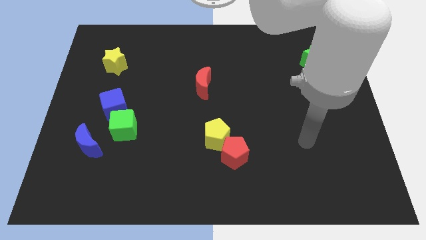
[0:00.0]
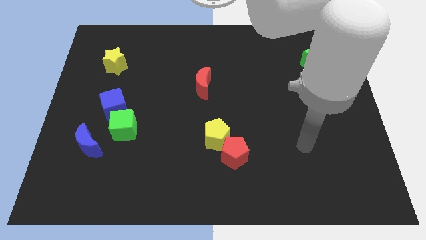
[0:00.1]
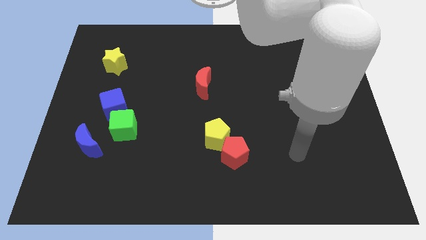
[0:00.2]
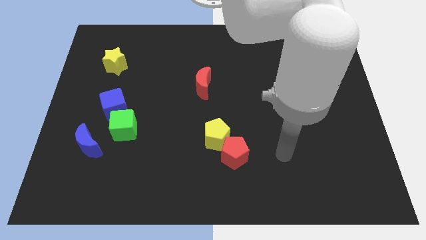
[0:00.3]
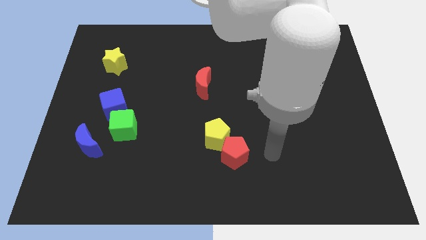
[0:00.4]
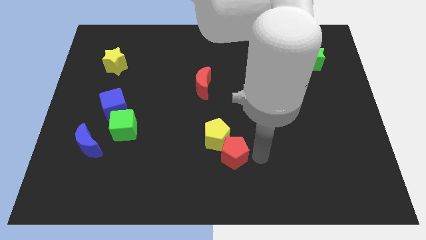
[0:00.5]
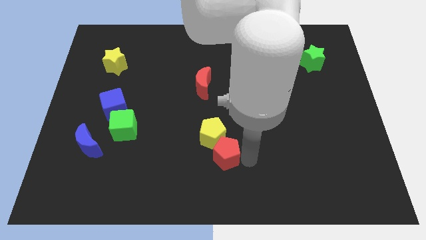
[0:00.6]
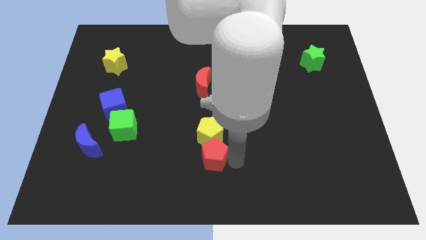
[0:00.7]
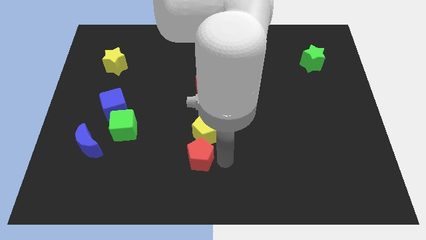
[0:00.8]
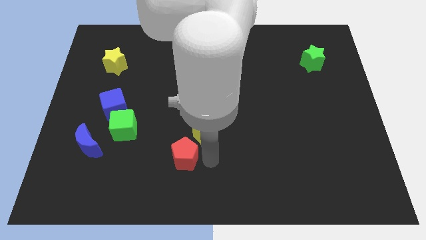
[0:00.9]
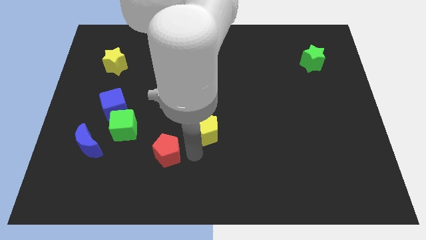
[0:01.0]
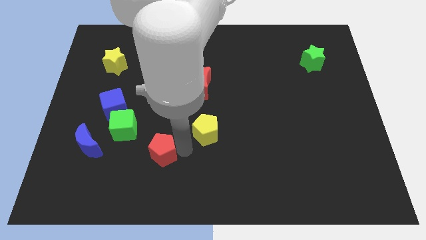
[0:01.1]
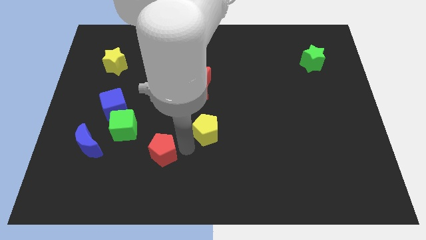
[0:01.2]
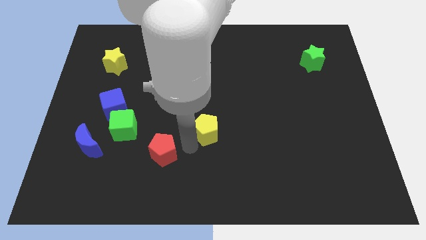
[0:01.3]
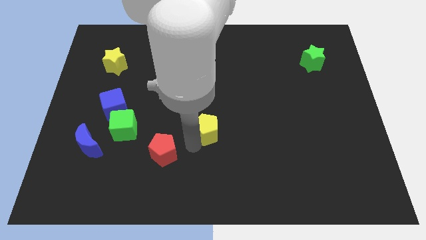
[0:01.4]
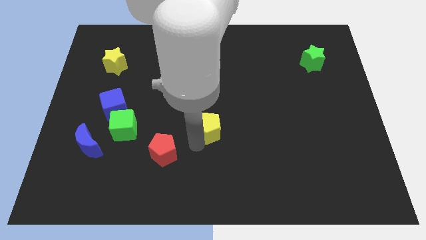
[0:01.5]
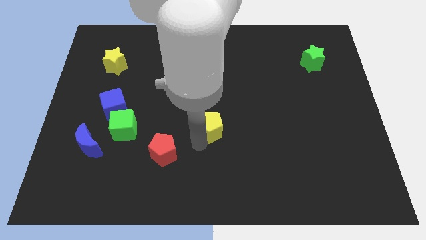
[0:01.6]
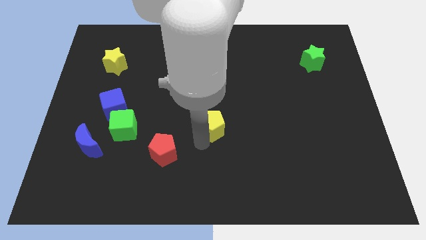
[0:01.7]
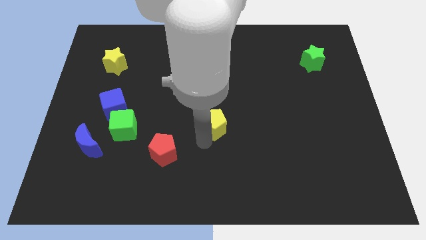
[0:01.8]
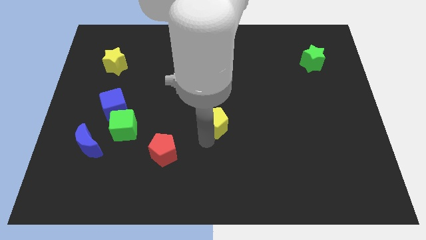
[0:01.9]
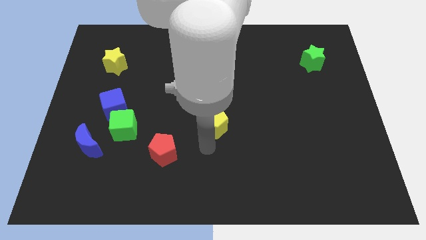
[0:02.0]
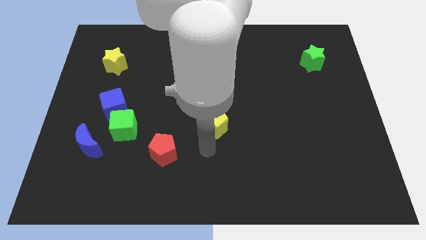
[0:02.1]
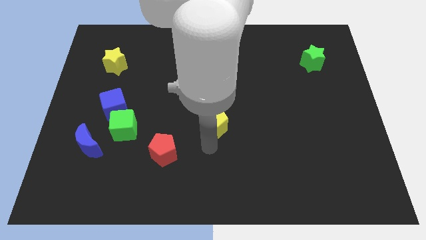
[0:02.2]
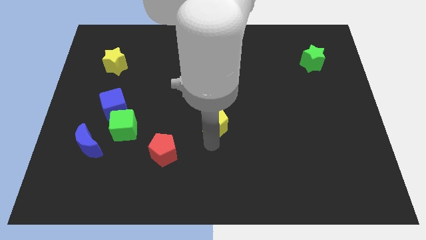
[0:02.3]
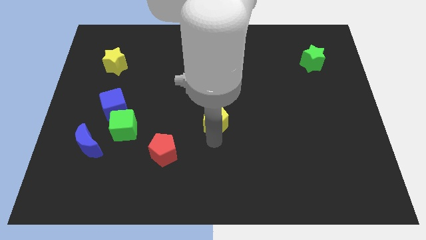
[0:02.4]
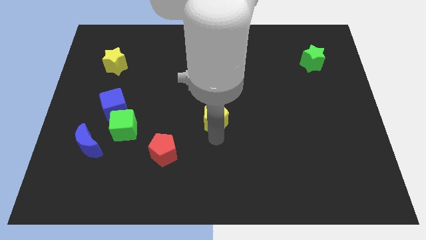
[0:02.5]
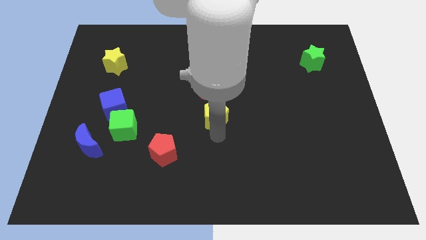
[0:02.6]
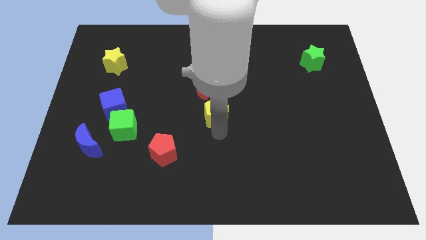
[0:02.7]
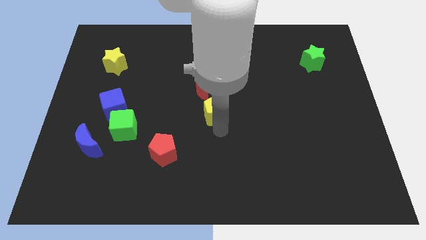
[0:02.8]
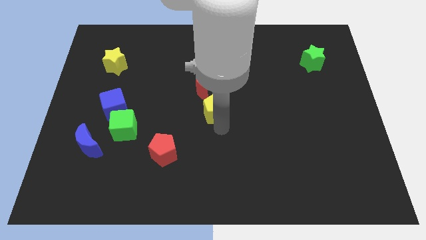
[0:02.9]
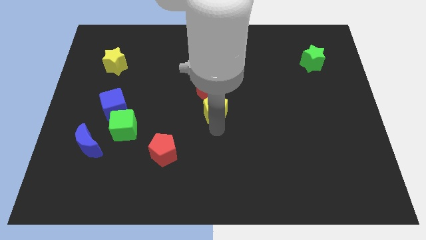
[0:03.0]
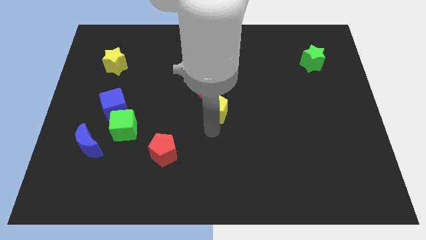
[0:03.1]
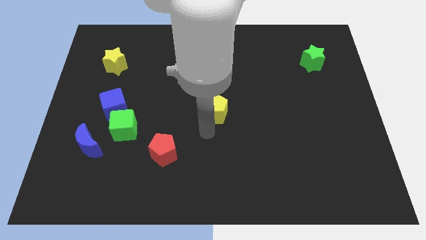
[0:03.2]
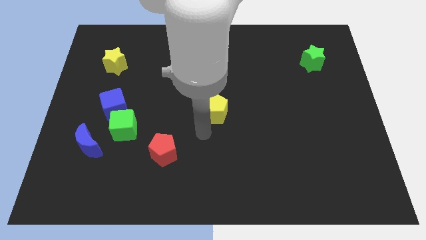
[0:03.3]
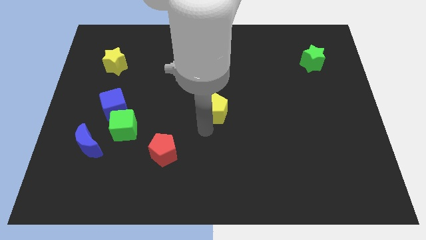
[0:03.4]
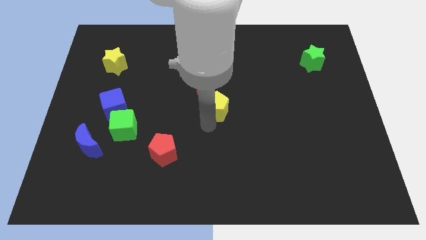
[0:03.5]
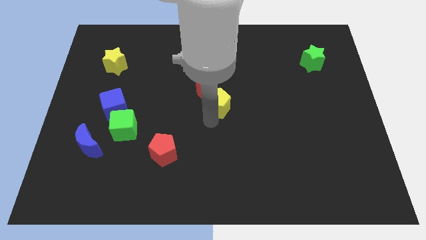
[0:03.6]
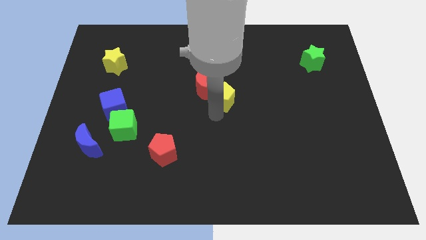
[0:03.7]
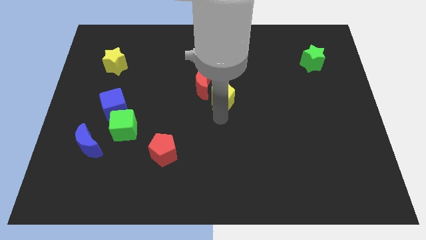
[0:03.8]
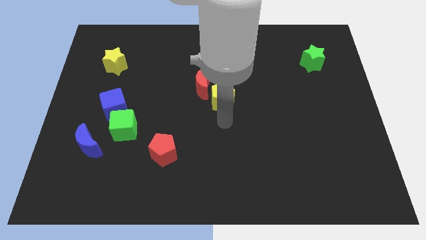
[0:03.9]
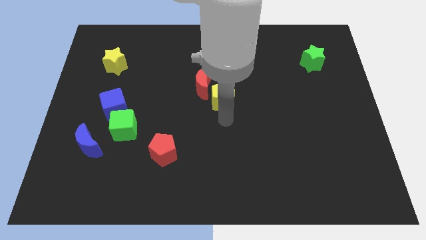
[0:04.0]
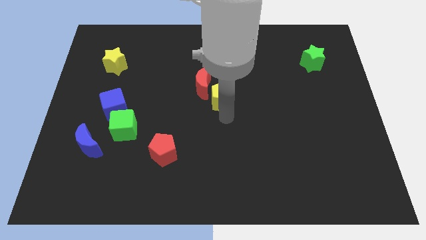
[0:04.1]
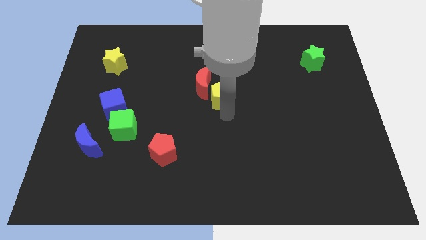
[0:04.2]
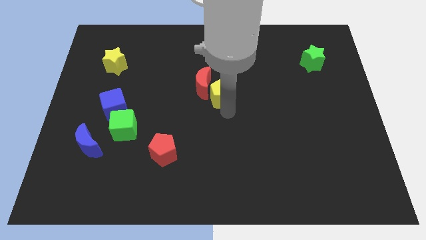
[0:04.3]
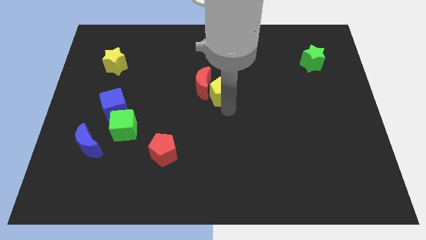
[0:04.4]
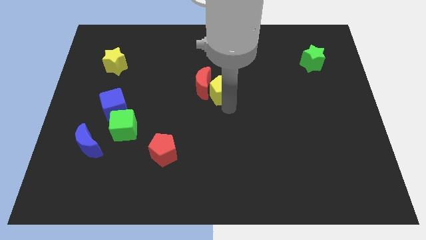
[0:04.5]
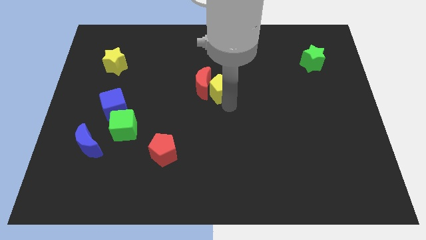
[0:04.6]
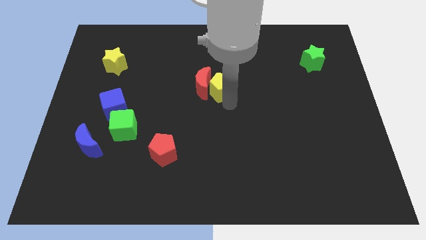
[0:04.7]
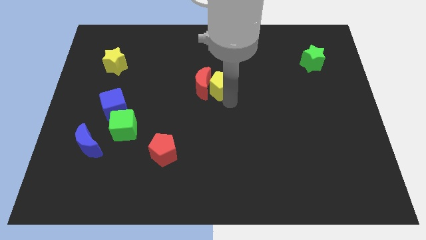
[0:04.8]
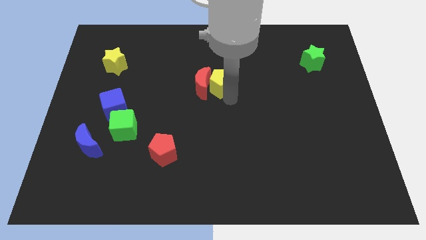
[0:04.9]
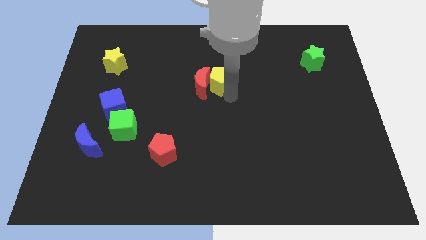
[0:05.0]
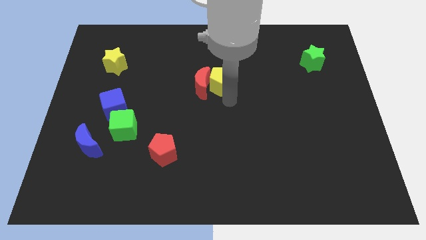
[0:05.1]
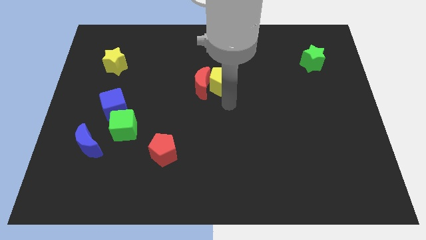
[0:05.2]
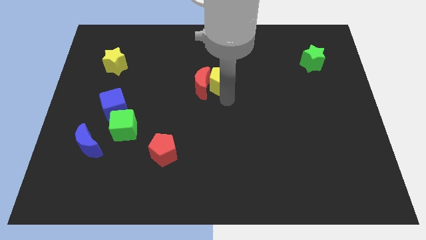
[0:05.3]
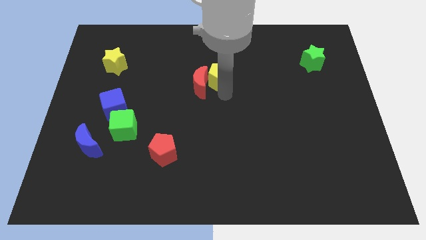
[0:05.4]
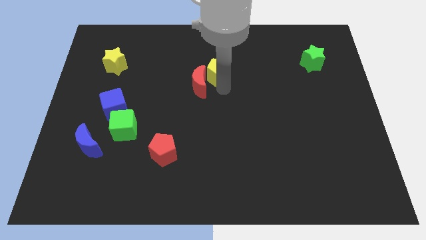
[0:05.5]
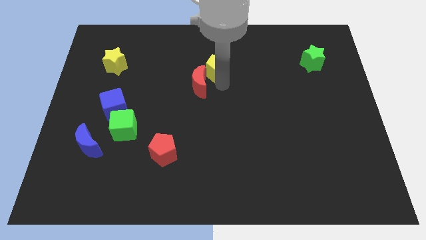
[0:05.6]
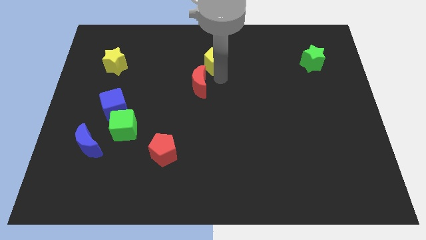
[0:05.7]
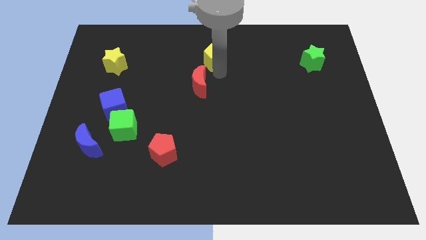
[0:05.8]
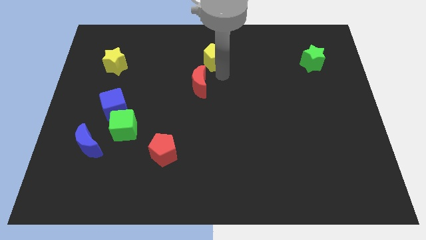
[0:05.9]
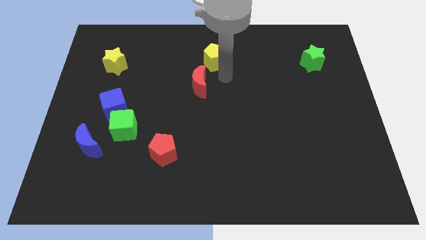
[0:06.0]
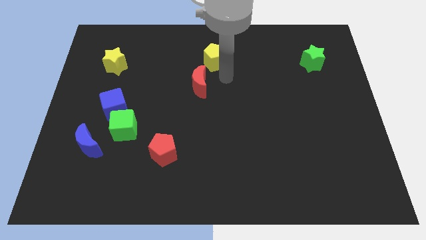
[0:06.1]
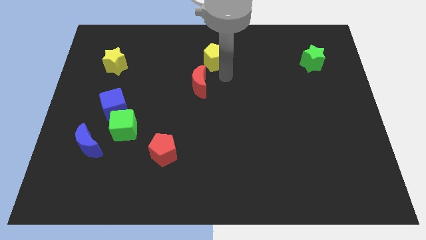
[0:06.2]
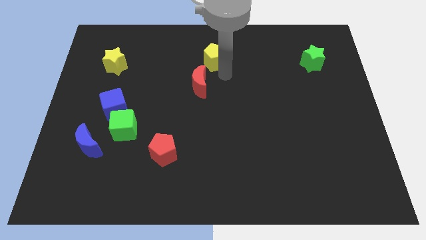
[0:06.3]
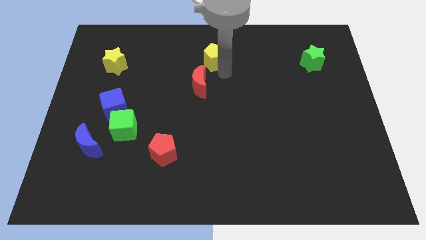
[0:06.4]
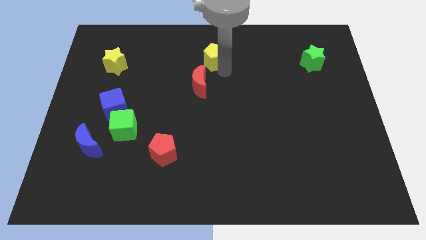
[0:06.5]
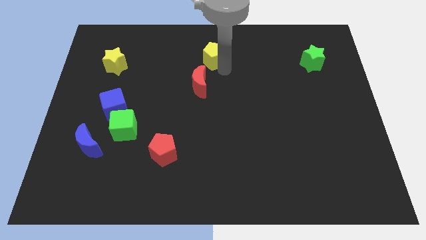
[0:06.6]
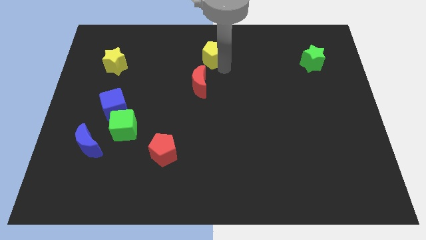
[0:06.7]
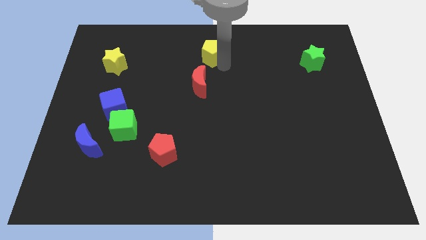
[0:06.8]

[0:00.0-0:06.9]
put the yellow pentagon to the top side
